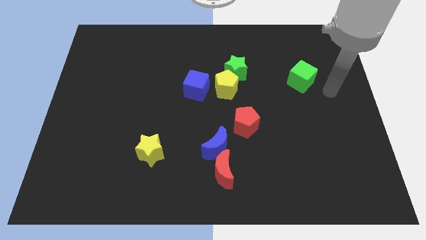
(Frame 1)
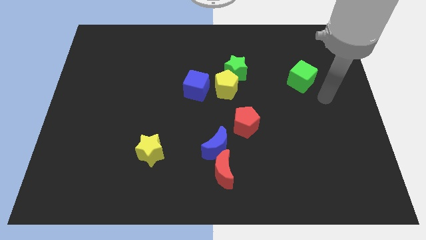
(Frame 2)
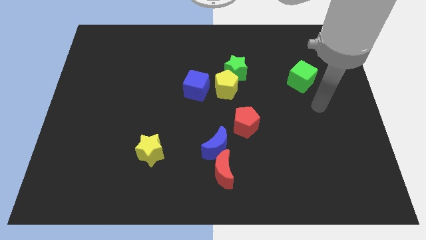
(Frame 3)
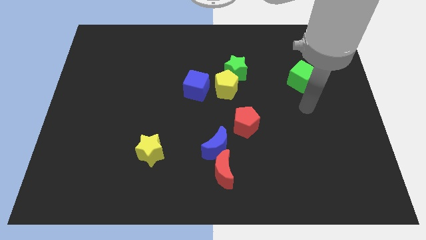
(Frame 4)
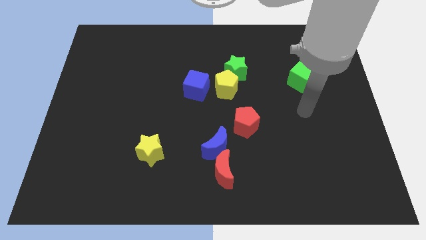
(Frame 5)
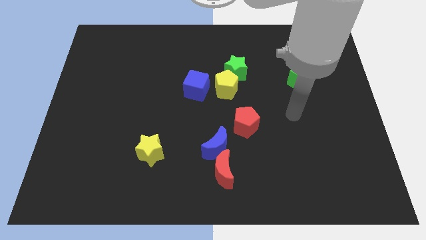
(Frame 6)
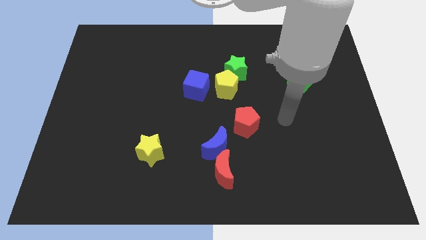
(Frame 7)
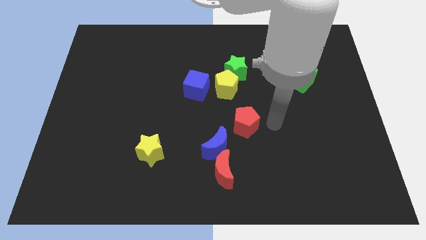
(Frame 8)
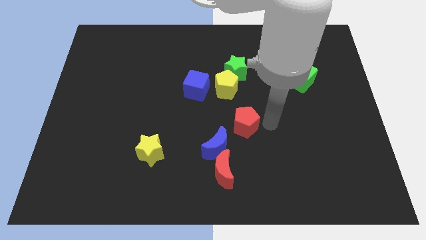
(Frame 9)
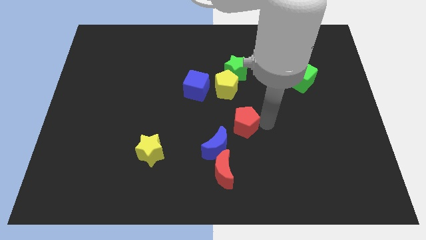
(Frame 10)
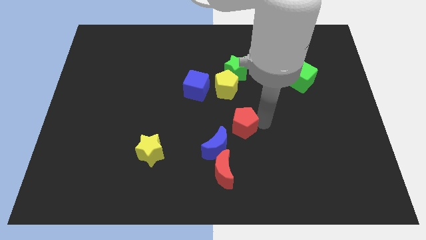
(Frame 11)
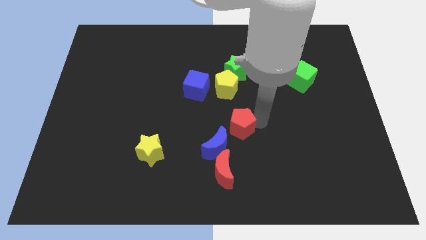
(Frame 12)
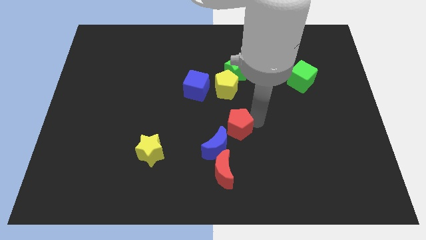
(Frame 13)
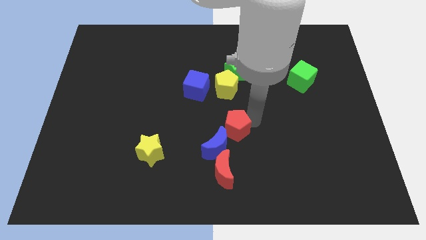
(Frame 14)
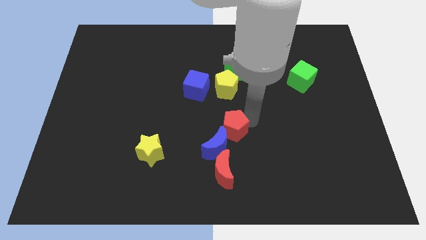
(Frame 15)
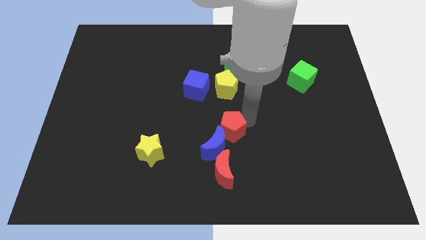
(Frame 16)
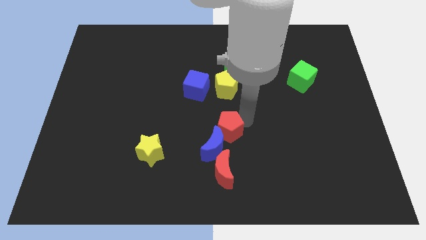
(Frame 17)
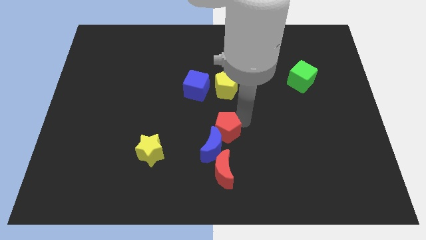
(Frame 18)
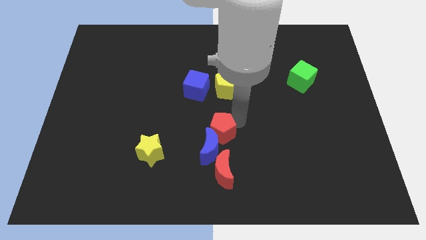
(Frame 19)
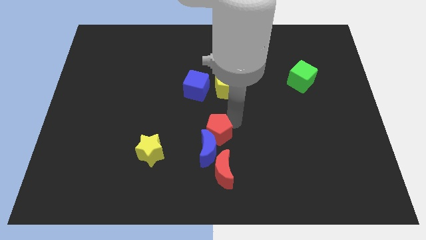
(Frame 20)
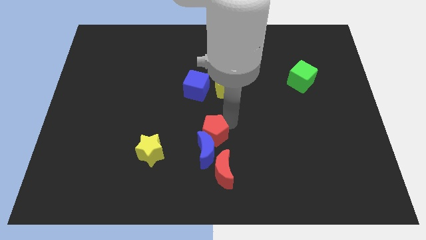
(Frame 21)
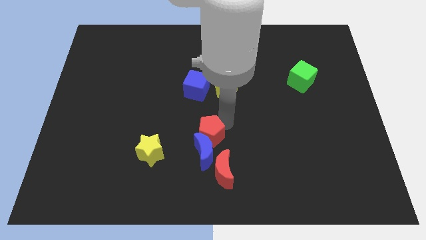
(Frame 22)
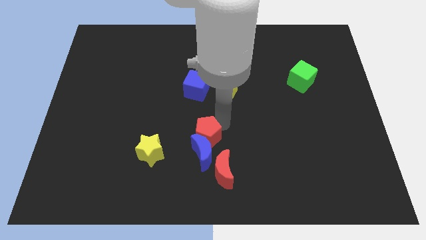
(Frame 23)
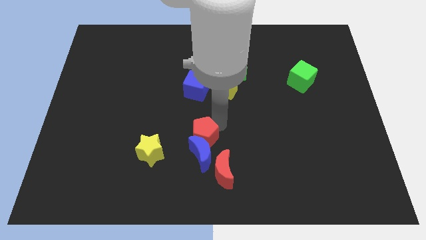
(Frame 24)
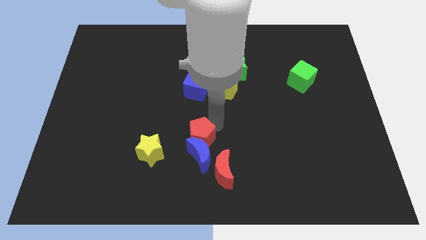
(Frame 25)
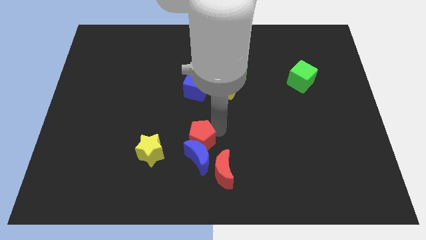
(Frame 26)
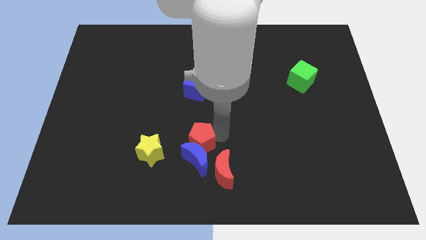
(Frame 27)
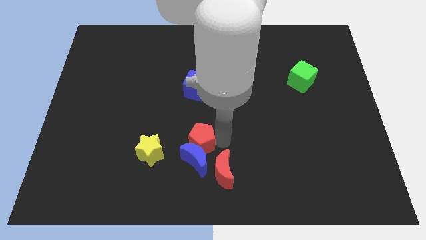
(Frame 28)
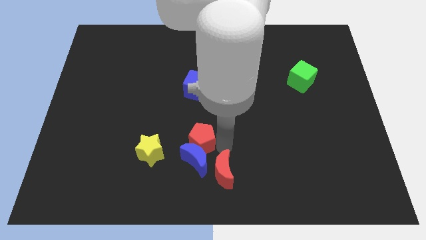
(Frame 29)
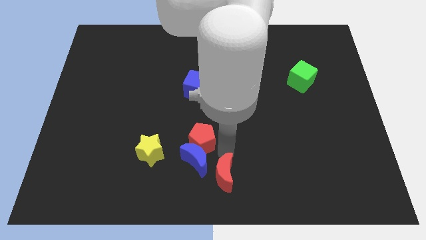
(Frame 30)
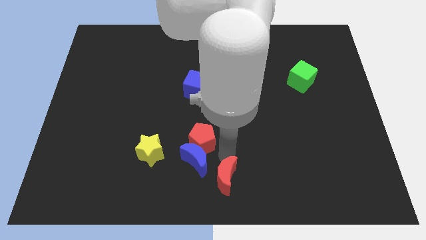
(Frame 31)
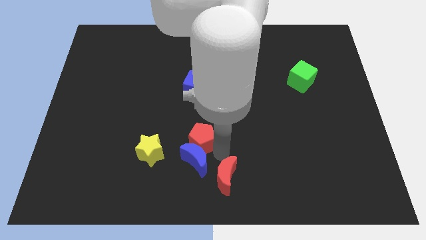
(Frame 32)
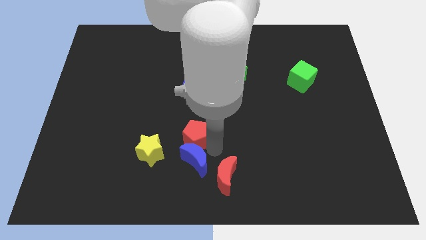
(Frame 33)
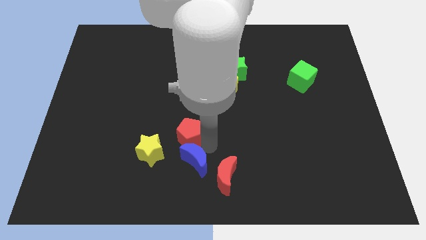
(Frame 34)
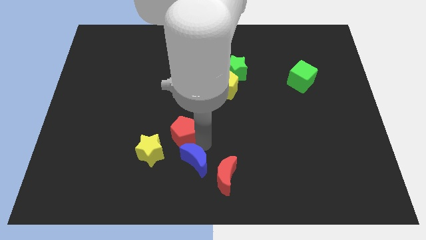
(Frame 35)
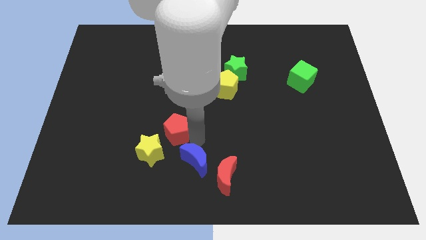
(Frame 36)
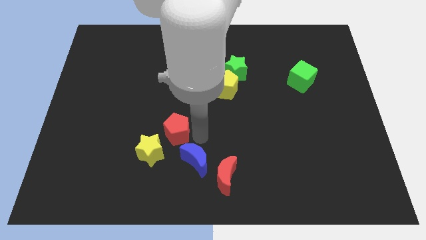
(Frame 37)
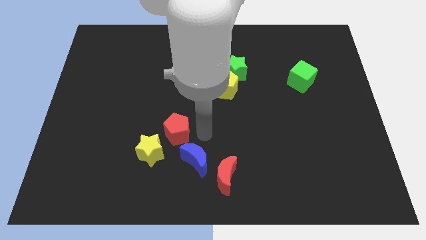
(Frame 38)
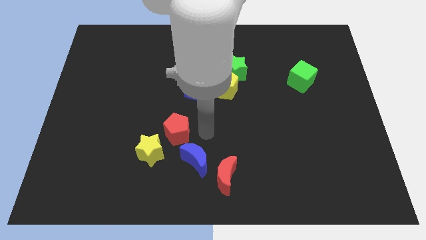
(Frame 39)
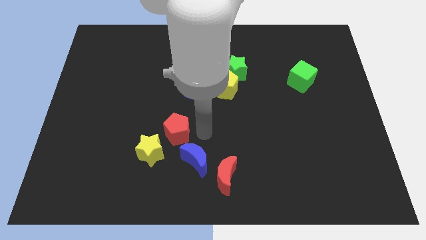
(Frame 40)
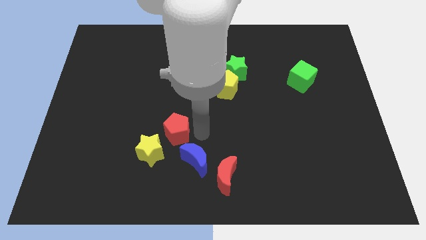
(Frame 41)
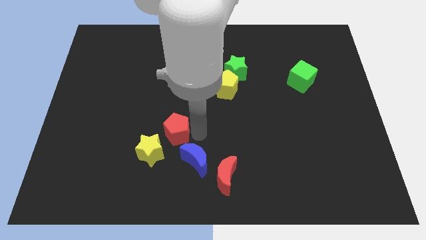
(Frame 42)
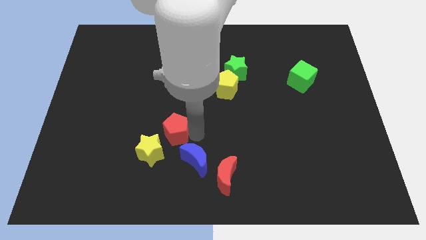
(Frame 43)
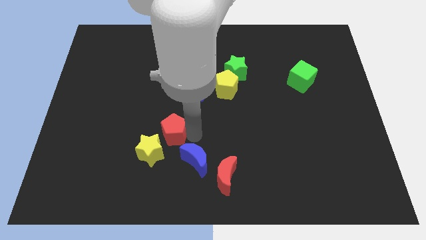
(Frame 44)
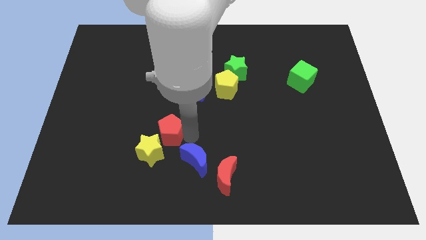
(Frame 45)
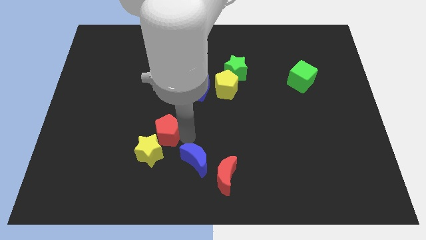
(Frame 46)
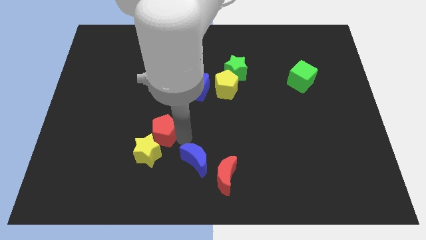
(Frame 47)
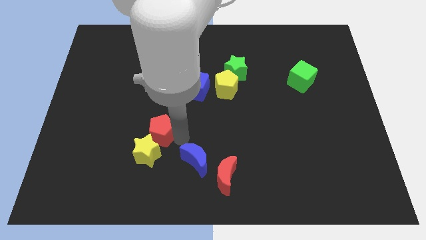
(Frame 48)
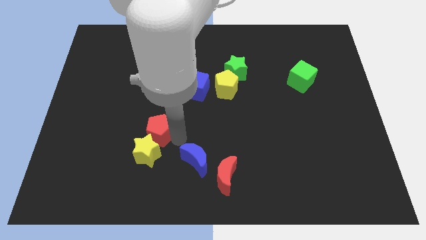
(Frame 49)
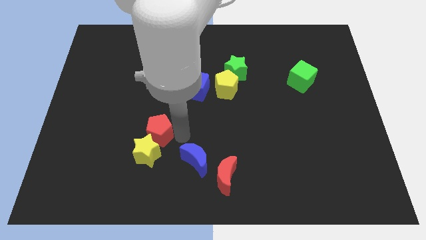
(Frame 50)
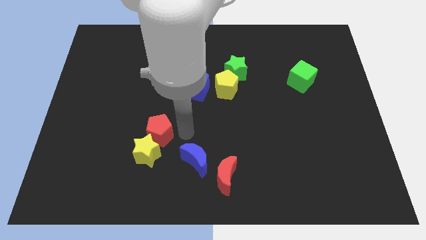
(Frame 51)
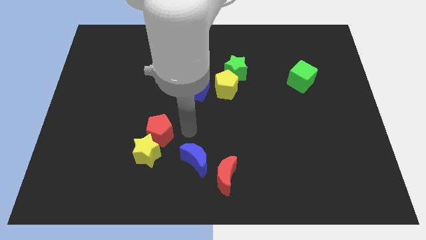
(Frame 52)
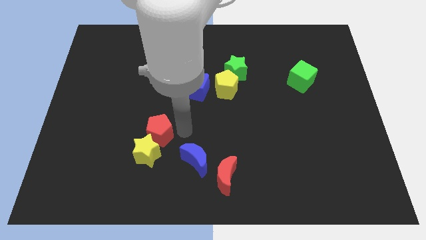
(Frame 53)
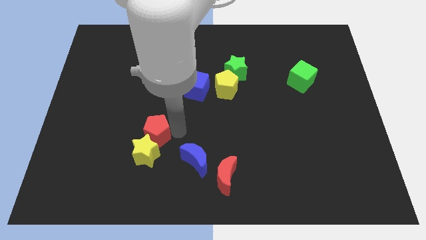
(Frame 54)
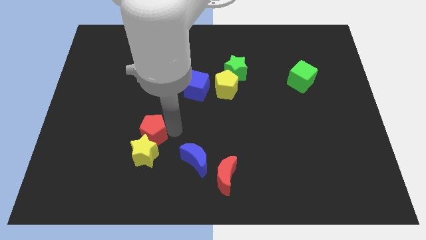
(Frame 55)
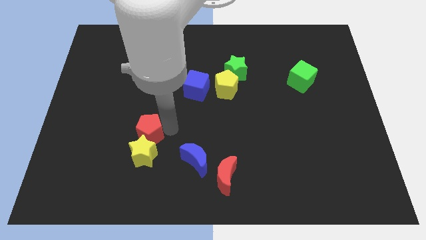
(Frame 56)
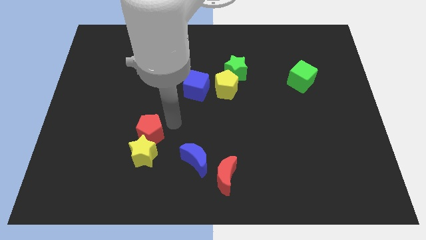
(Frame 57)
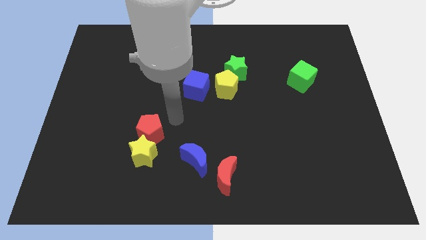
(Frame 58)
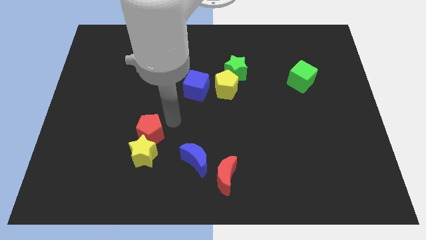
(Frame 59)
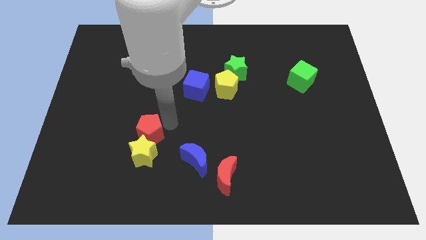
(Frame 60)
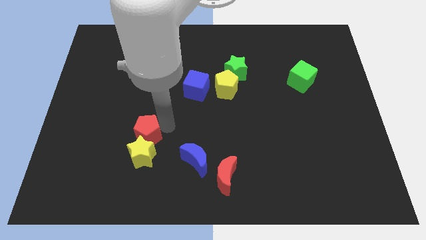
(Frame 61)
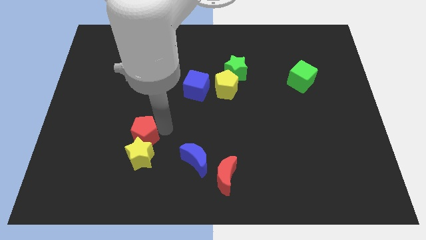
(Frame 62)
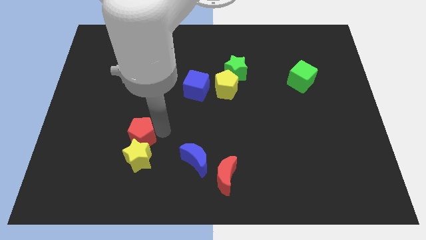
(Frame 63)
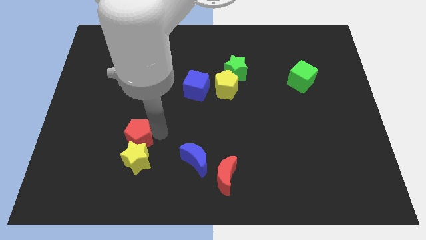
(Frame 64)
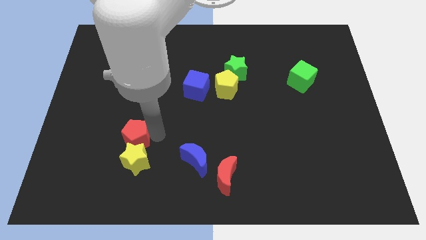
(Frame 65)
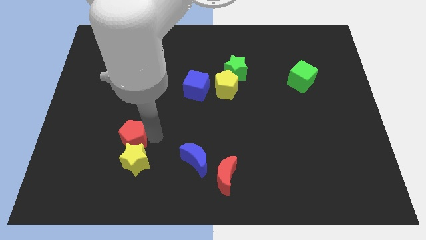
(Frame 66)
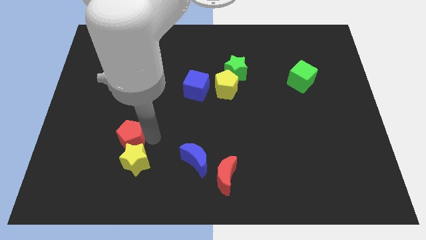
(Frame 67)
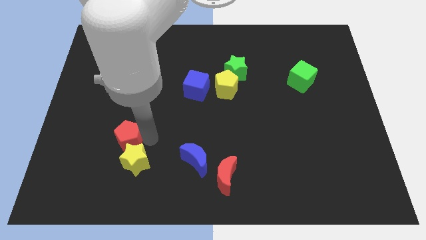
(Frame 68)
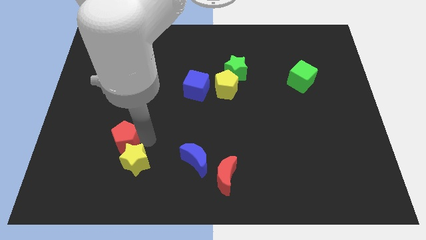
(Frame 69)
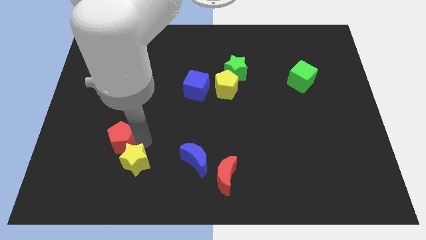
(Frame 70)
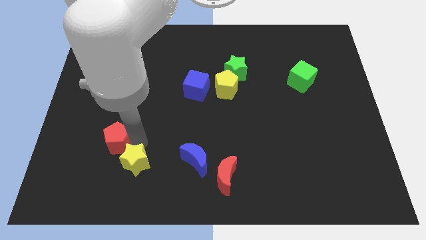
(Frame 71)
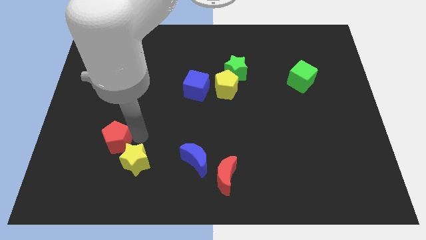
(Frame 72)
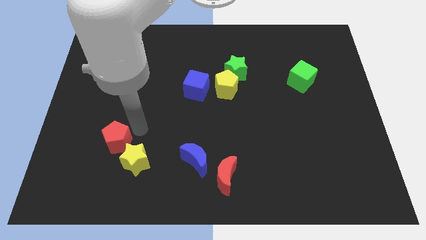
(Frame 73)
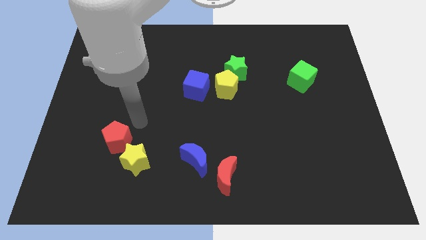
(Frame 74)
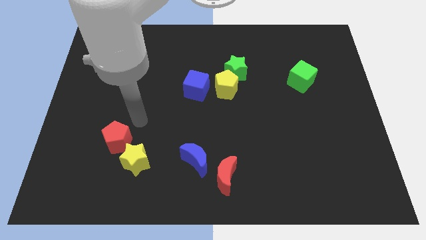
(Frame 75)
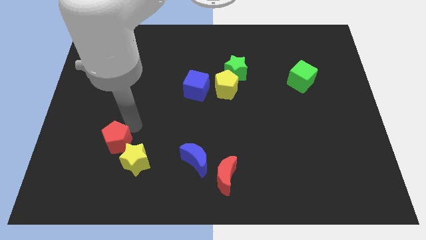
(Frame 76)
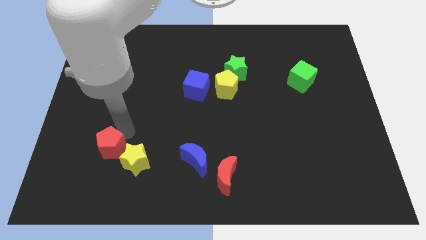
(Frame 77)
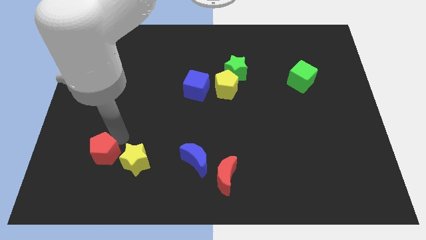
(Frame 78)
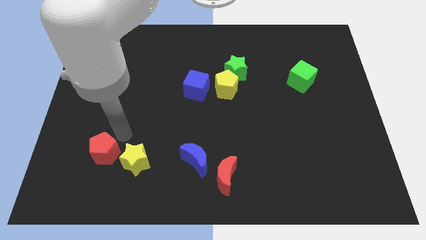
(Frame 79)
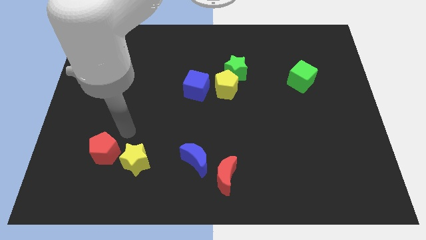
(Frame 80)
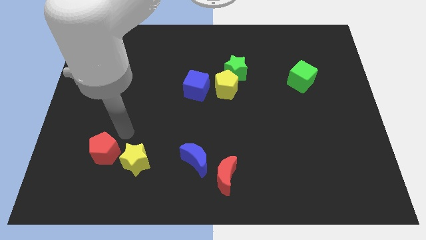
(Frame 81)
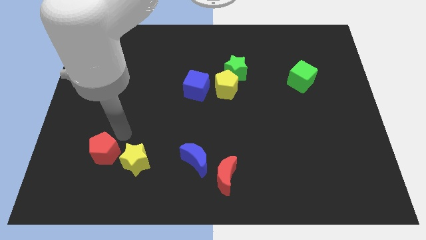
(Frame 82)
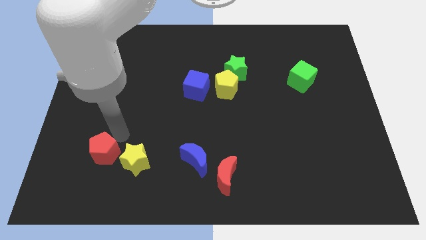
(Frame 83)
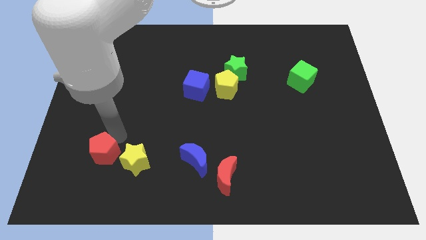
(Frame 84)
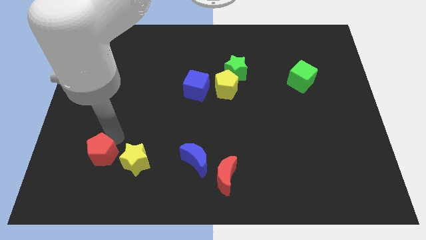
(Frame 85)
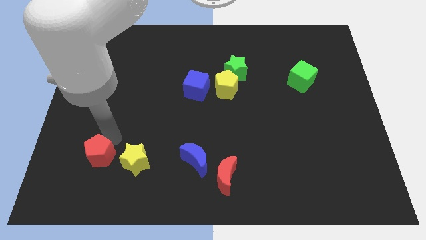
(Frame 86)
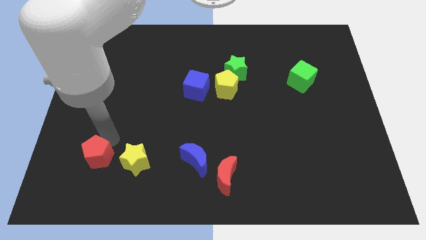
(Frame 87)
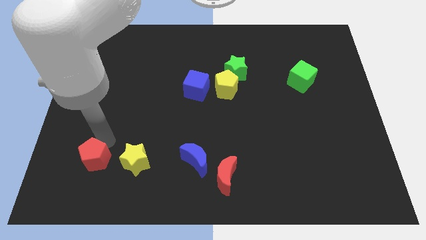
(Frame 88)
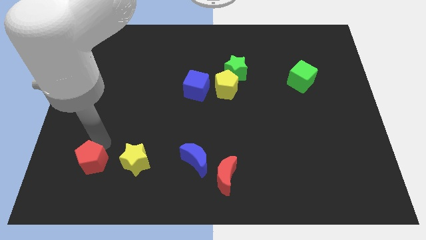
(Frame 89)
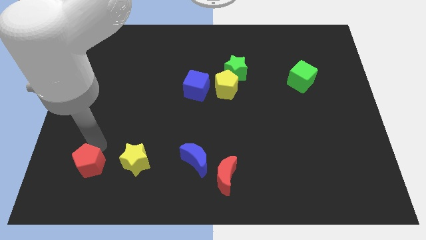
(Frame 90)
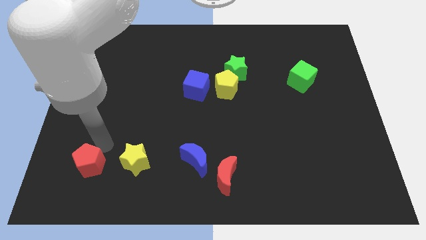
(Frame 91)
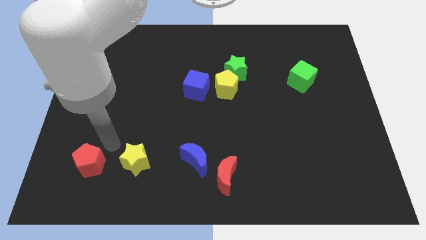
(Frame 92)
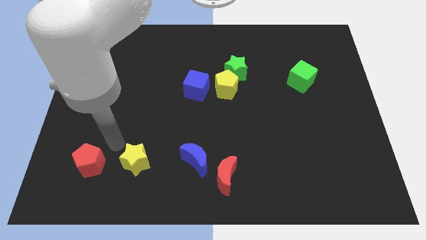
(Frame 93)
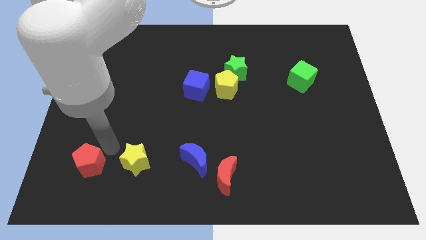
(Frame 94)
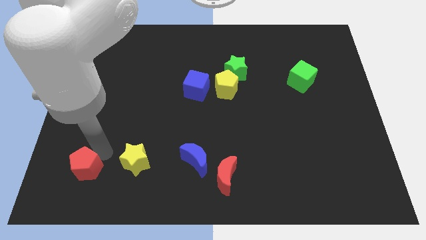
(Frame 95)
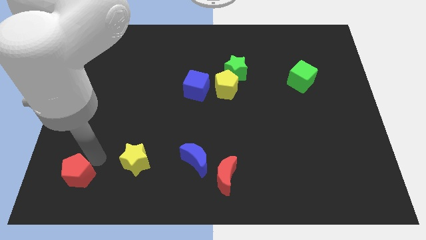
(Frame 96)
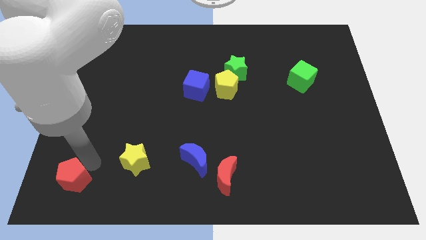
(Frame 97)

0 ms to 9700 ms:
slide the red pentagon to the bottom left of the board
